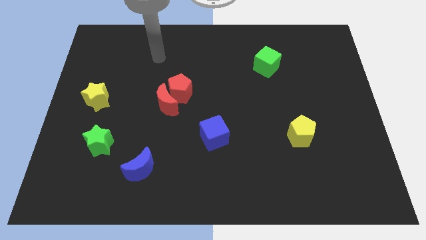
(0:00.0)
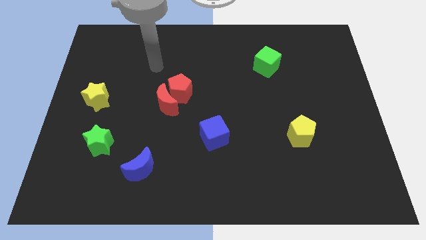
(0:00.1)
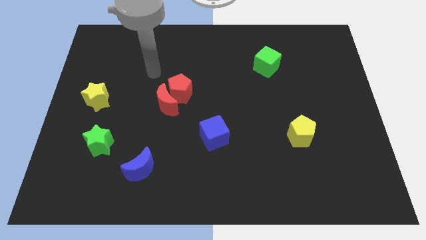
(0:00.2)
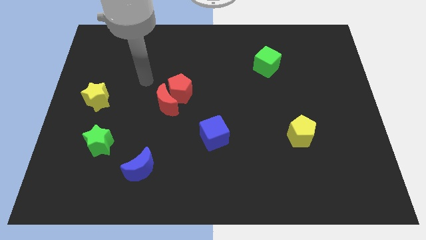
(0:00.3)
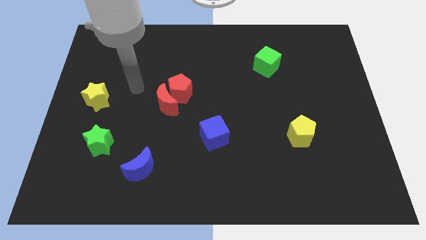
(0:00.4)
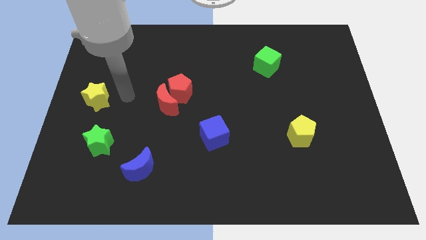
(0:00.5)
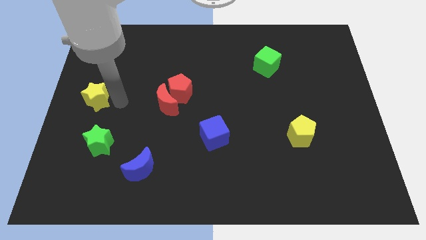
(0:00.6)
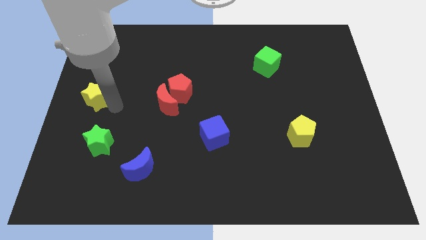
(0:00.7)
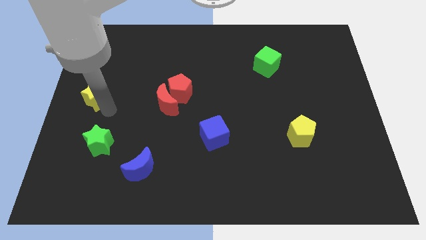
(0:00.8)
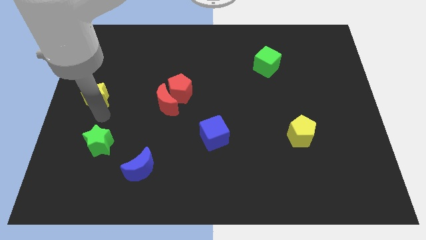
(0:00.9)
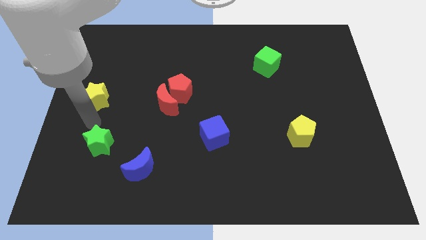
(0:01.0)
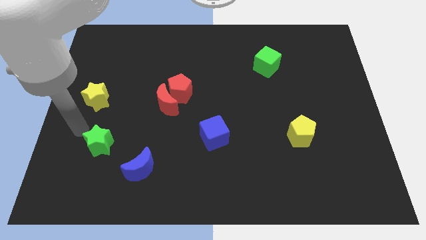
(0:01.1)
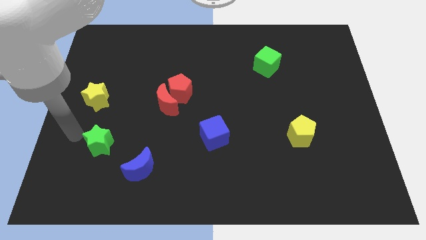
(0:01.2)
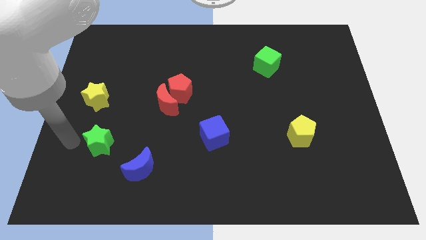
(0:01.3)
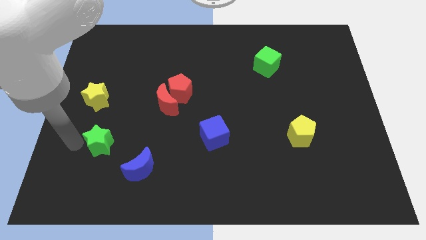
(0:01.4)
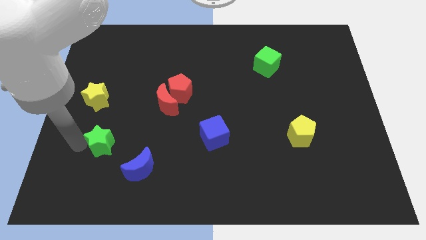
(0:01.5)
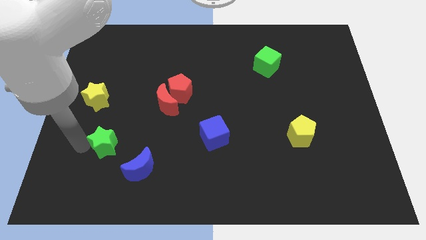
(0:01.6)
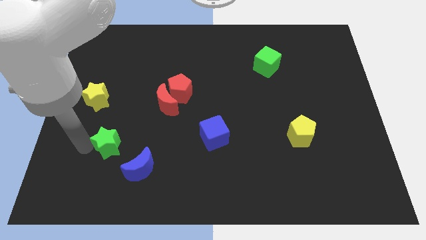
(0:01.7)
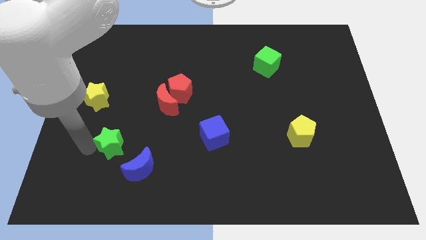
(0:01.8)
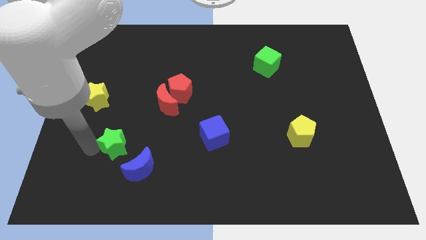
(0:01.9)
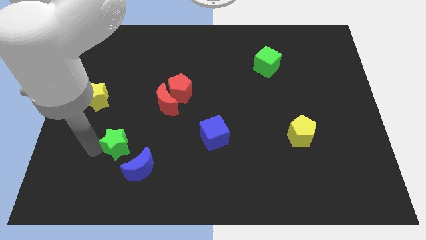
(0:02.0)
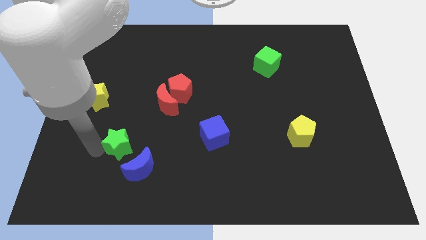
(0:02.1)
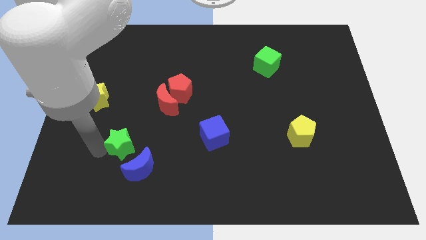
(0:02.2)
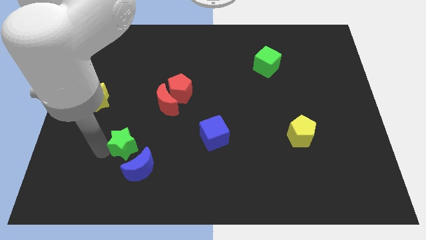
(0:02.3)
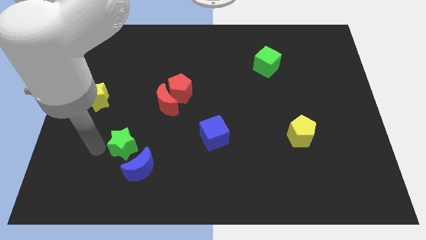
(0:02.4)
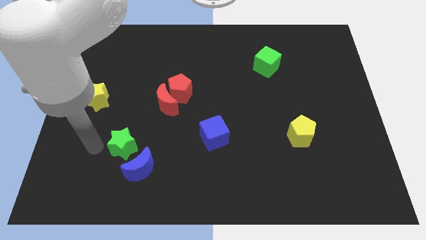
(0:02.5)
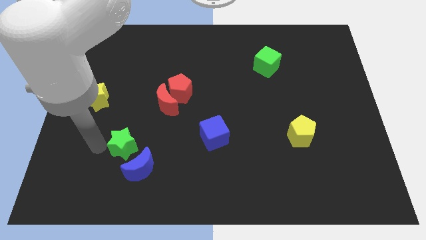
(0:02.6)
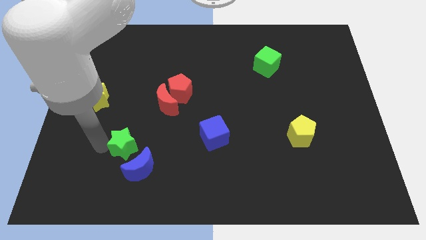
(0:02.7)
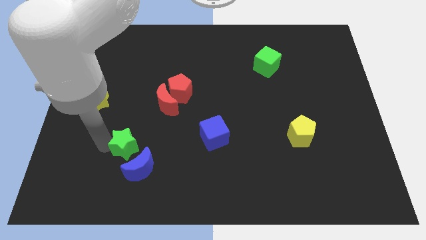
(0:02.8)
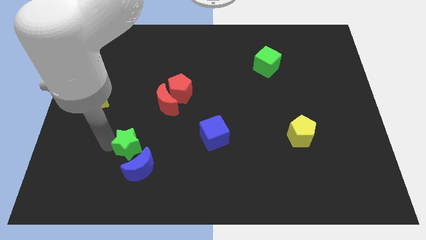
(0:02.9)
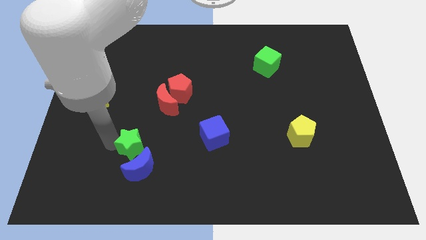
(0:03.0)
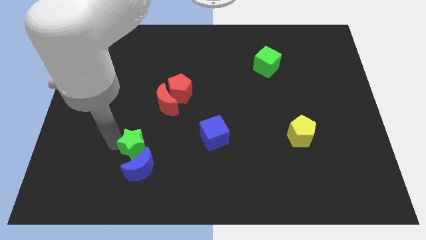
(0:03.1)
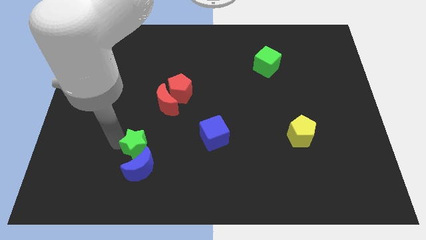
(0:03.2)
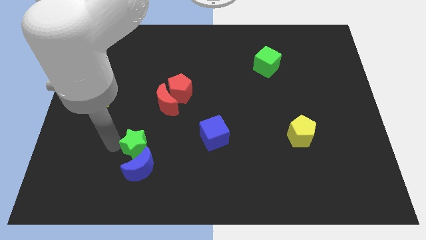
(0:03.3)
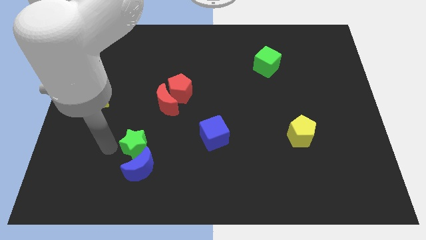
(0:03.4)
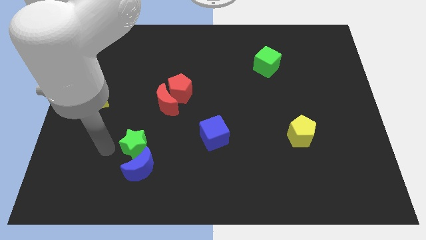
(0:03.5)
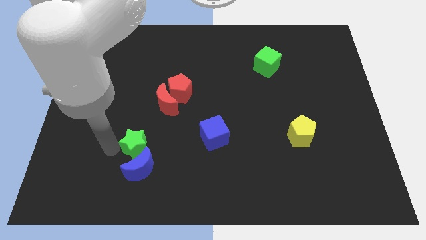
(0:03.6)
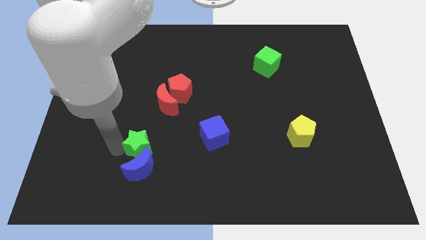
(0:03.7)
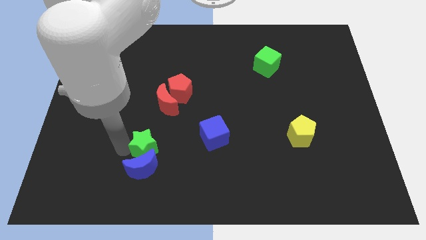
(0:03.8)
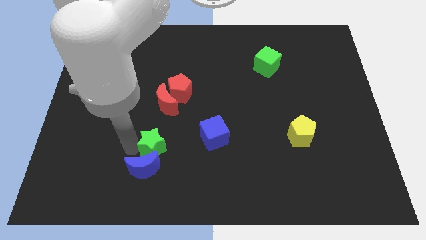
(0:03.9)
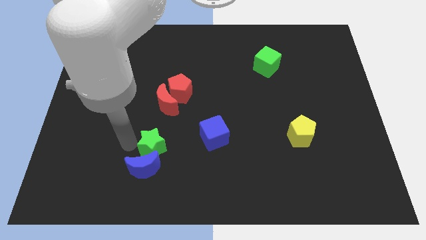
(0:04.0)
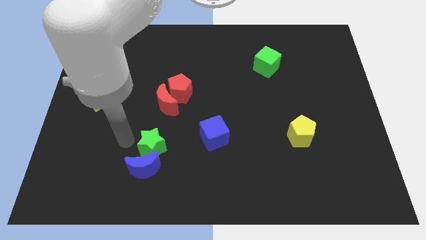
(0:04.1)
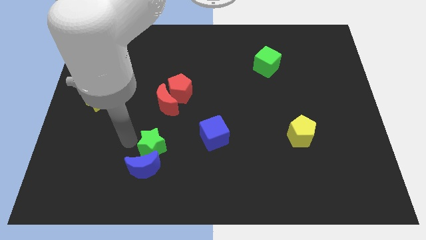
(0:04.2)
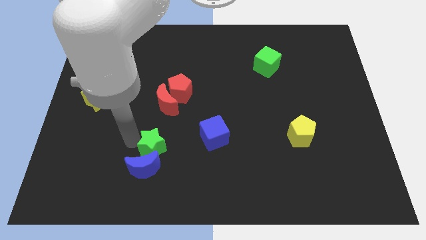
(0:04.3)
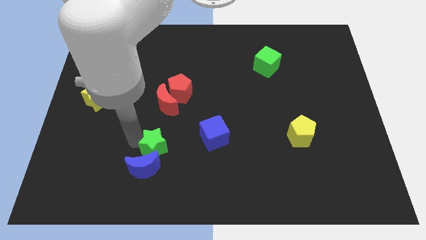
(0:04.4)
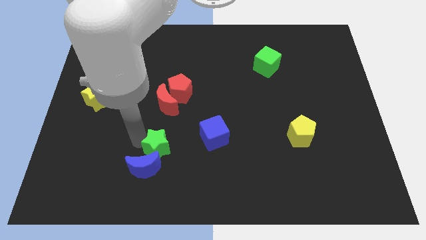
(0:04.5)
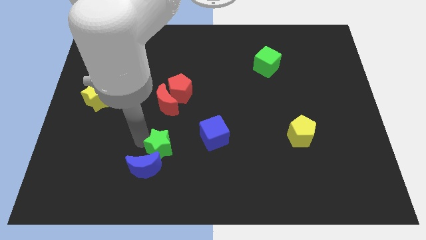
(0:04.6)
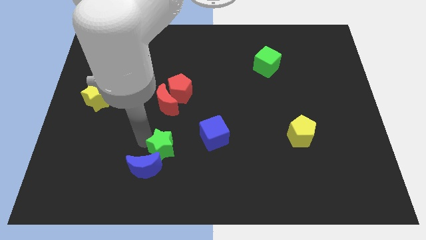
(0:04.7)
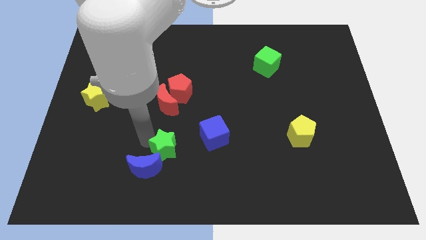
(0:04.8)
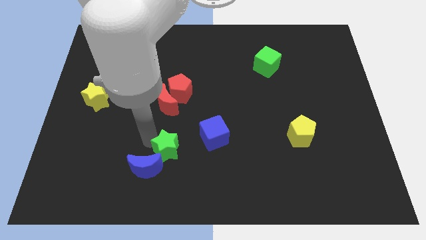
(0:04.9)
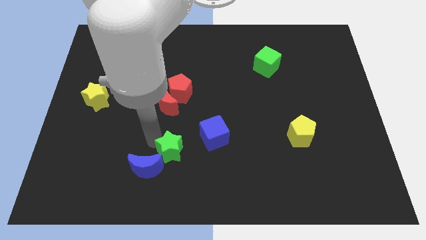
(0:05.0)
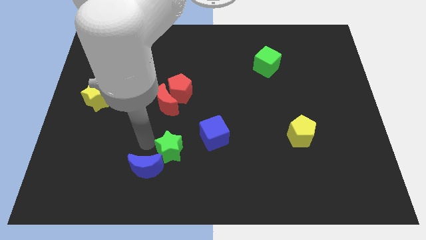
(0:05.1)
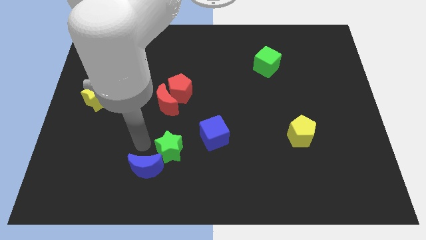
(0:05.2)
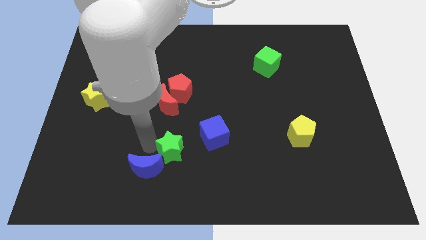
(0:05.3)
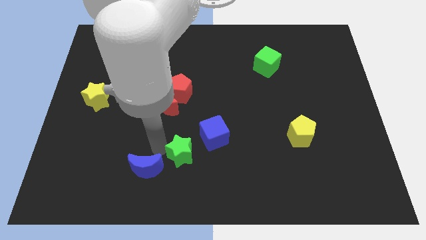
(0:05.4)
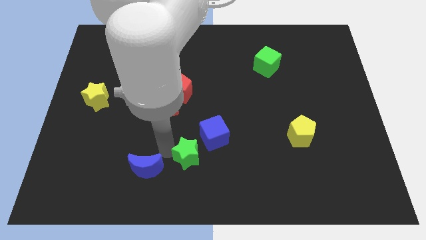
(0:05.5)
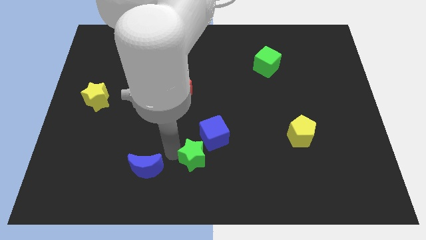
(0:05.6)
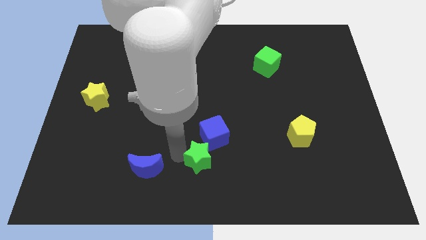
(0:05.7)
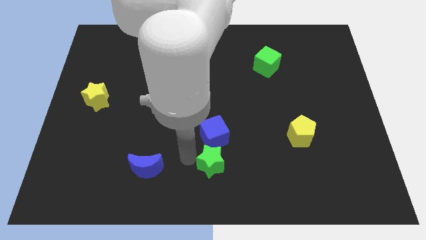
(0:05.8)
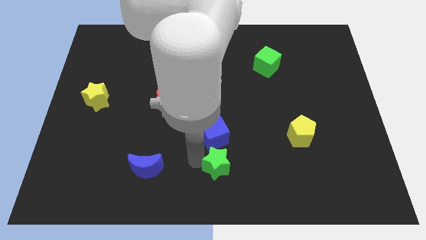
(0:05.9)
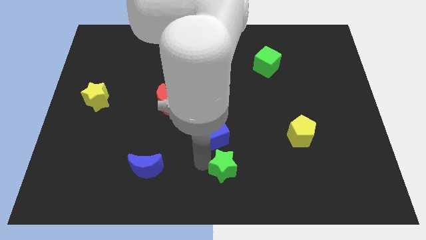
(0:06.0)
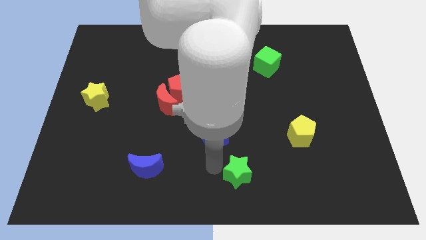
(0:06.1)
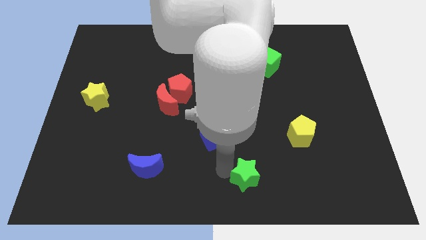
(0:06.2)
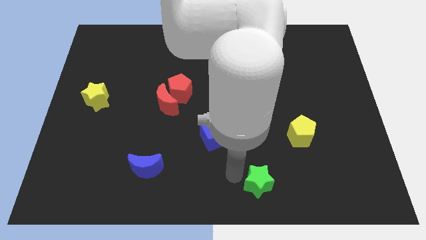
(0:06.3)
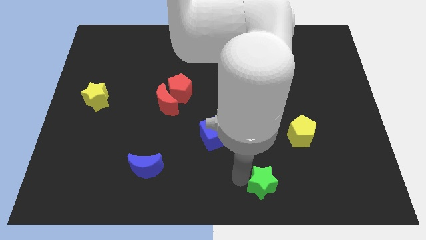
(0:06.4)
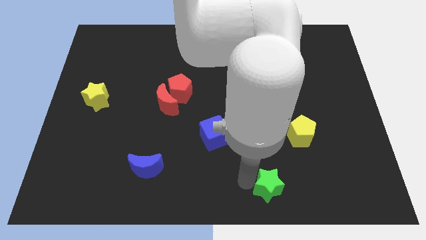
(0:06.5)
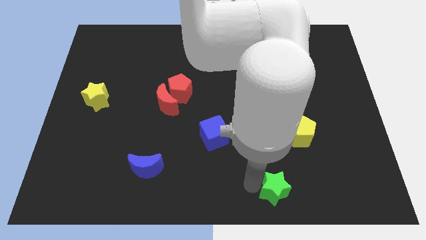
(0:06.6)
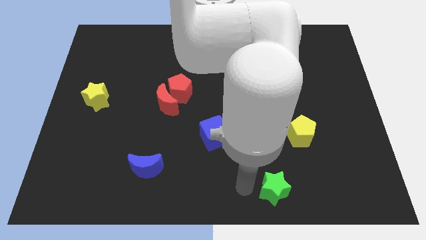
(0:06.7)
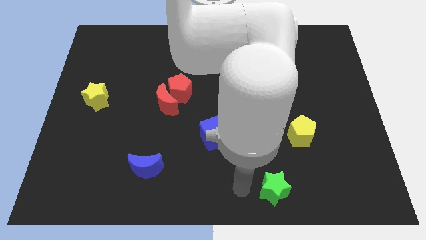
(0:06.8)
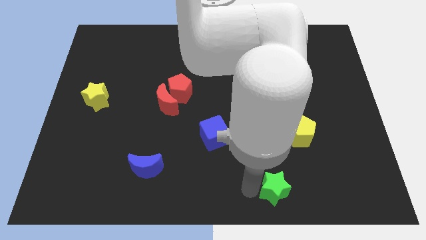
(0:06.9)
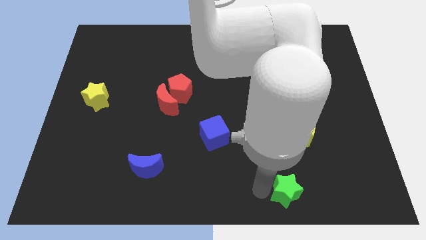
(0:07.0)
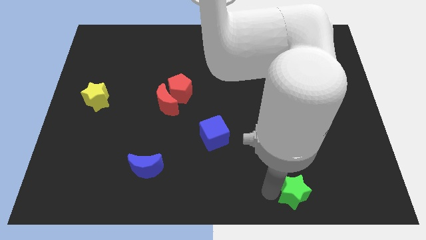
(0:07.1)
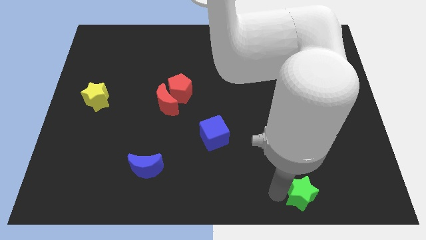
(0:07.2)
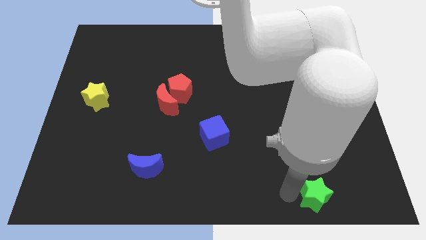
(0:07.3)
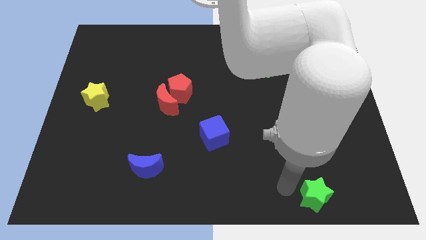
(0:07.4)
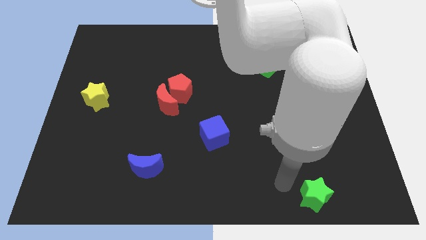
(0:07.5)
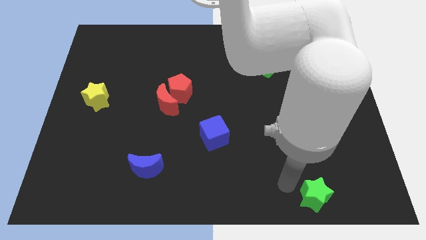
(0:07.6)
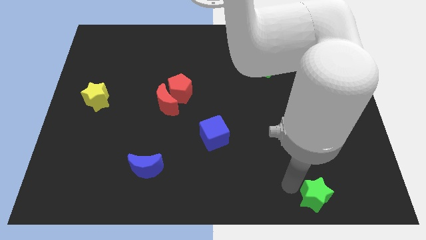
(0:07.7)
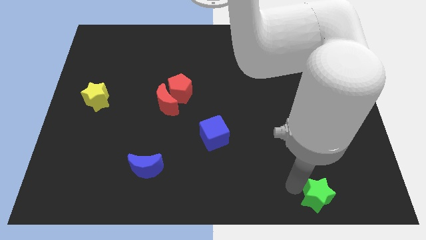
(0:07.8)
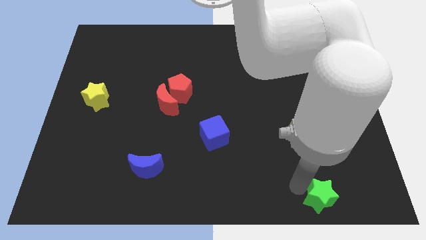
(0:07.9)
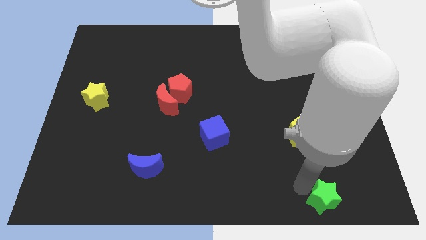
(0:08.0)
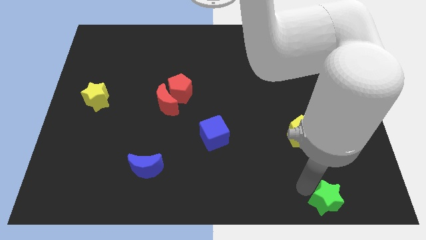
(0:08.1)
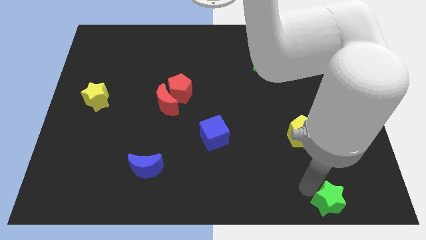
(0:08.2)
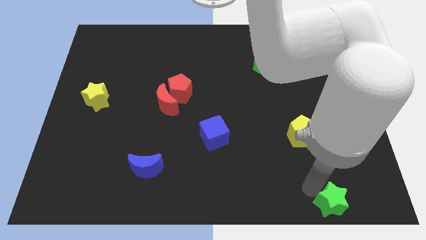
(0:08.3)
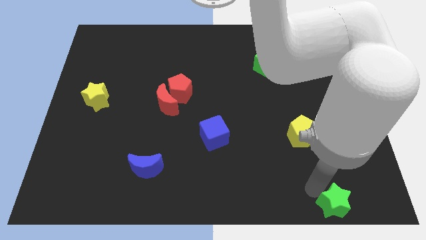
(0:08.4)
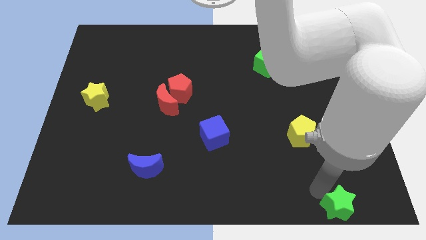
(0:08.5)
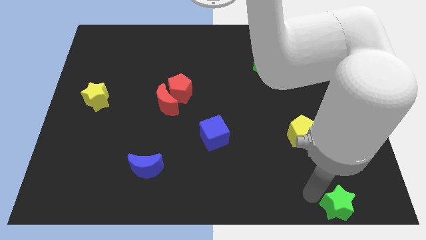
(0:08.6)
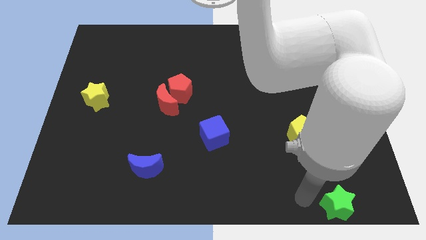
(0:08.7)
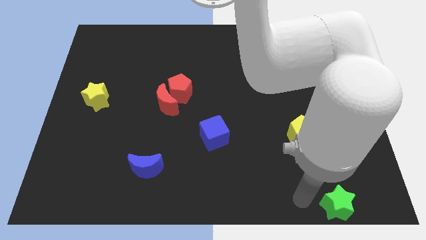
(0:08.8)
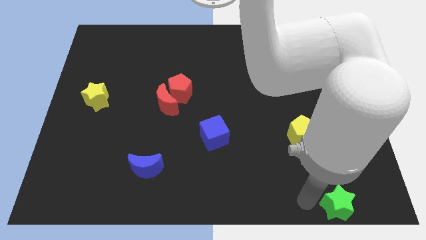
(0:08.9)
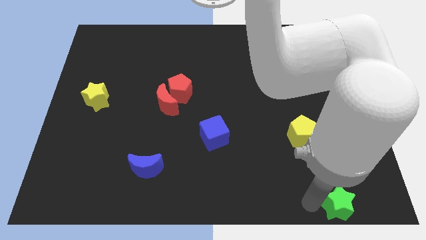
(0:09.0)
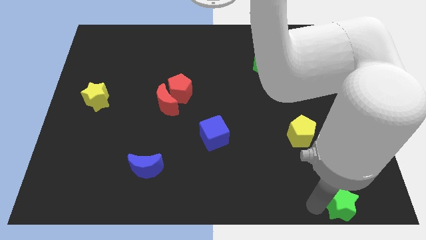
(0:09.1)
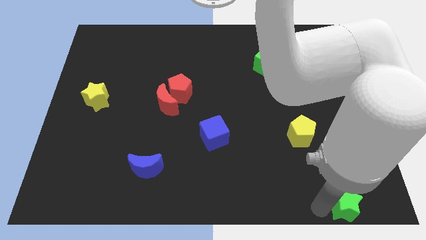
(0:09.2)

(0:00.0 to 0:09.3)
slide the green star to the bottom right corner
